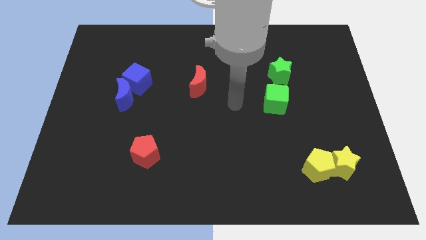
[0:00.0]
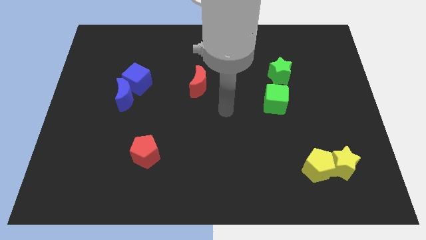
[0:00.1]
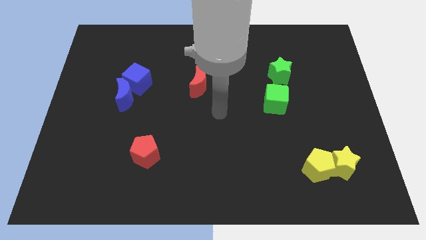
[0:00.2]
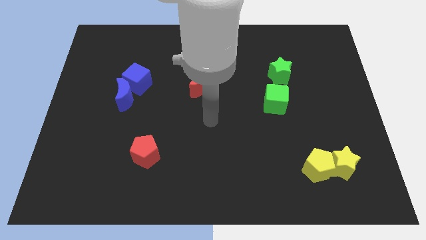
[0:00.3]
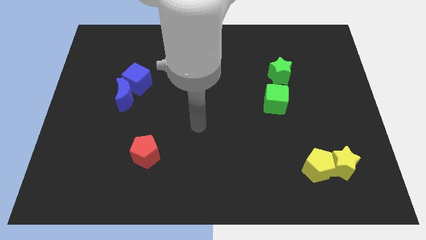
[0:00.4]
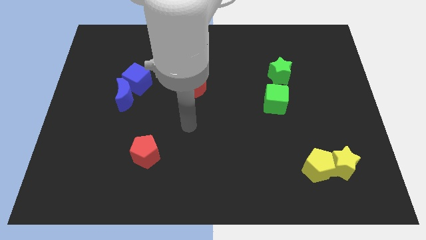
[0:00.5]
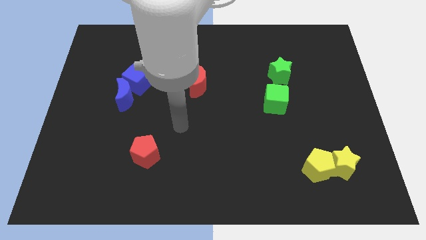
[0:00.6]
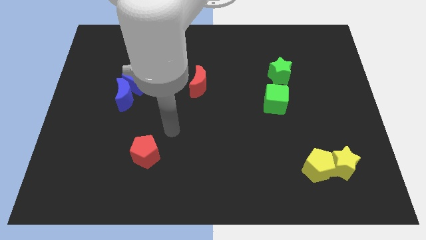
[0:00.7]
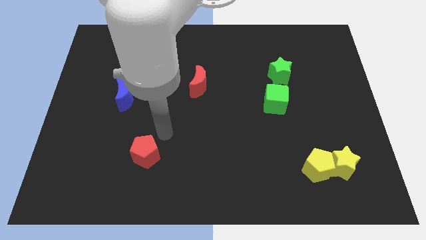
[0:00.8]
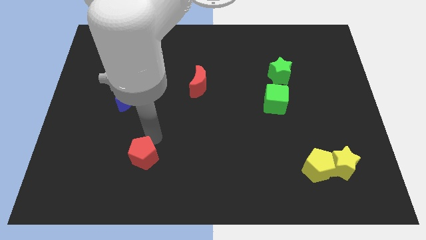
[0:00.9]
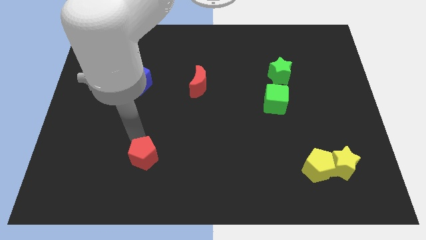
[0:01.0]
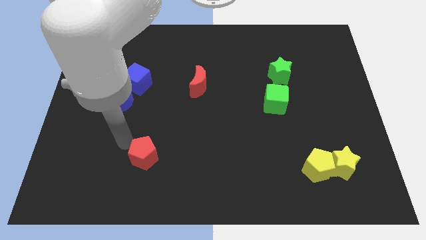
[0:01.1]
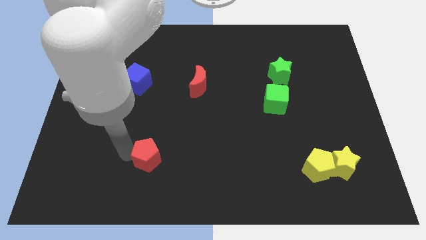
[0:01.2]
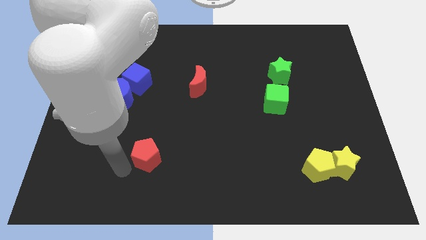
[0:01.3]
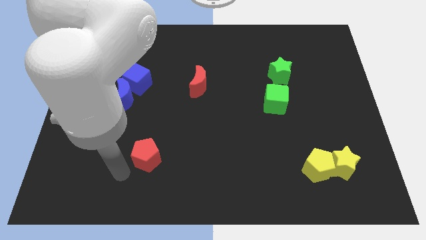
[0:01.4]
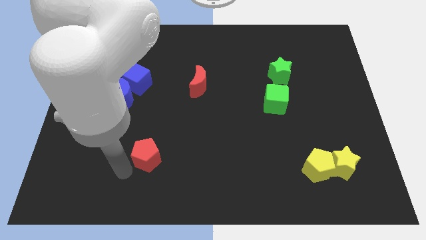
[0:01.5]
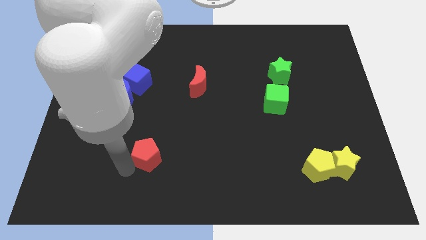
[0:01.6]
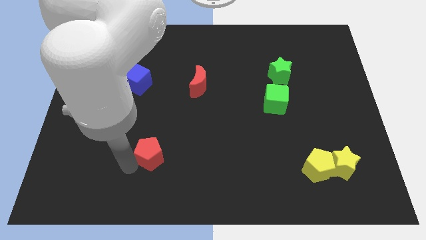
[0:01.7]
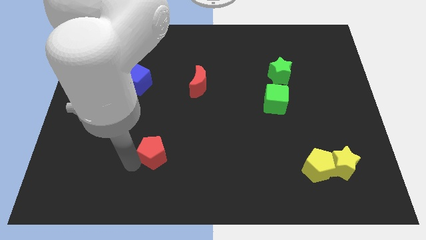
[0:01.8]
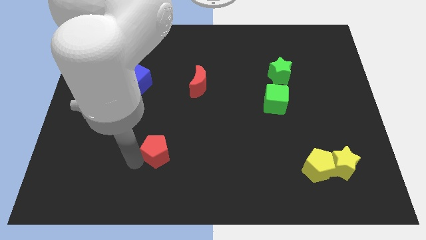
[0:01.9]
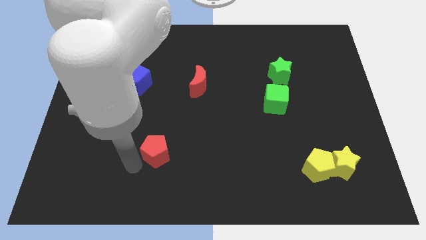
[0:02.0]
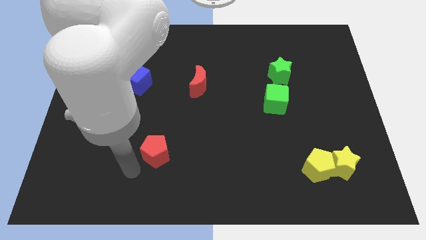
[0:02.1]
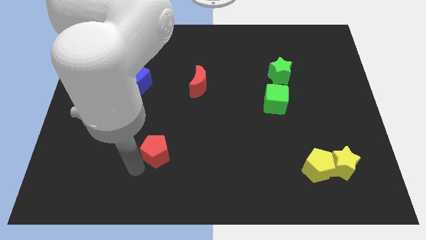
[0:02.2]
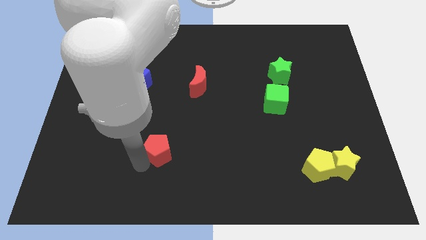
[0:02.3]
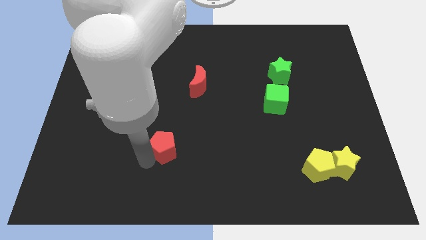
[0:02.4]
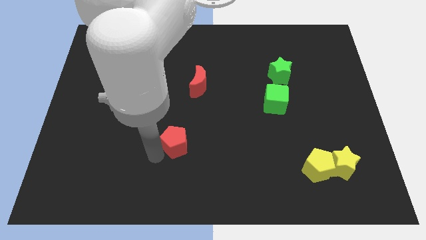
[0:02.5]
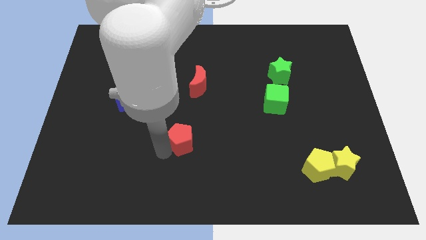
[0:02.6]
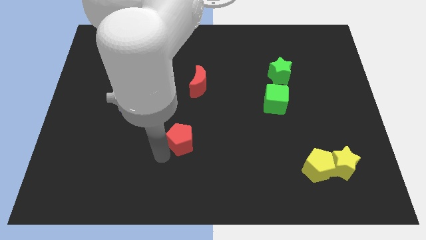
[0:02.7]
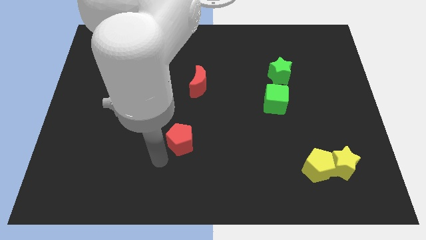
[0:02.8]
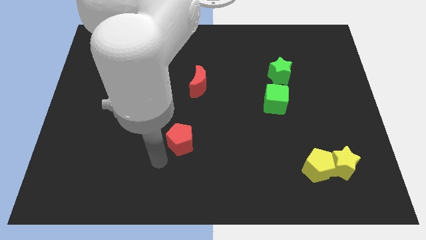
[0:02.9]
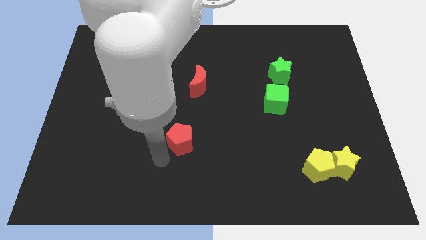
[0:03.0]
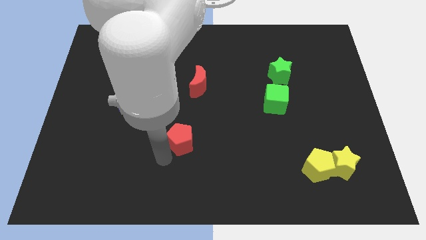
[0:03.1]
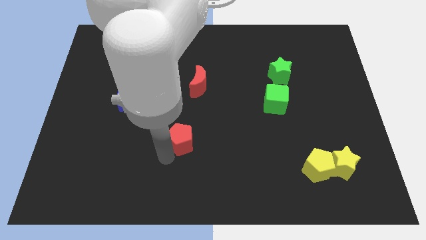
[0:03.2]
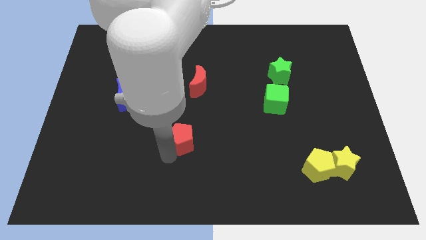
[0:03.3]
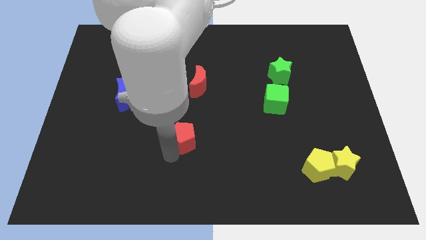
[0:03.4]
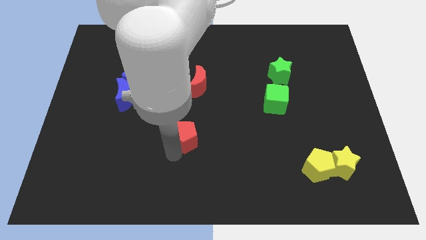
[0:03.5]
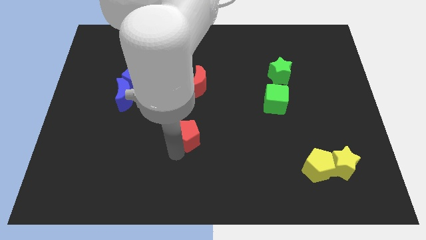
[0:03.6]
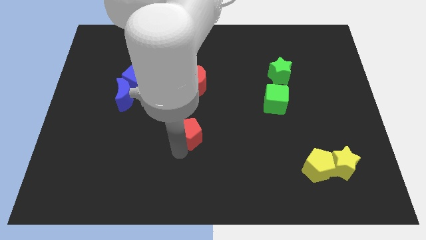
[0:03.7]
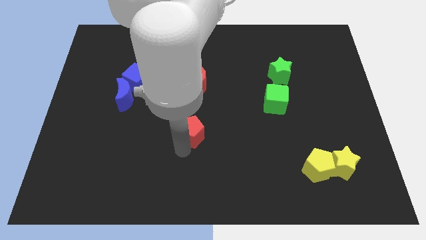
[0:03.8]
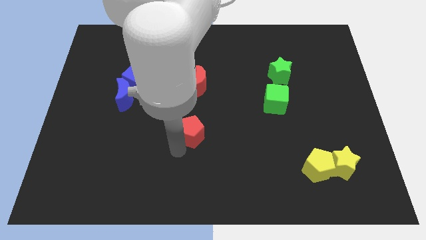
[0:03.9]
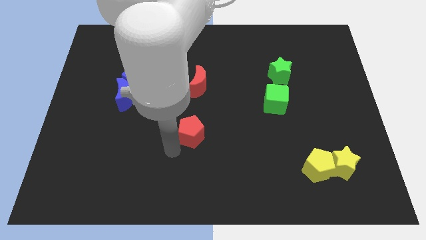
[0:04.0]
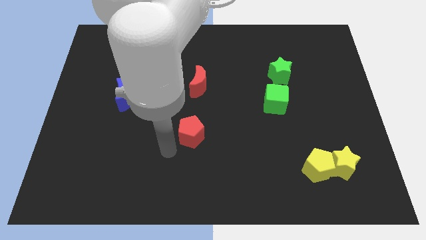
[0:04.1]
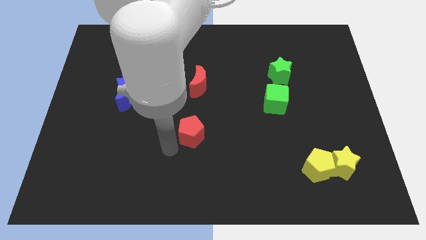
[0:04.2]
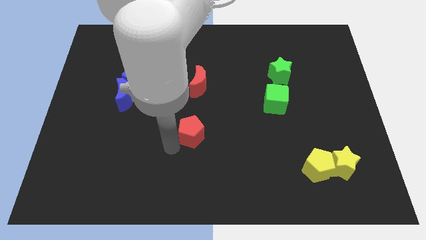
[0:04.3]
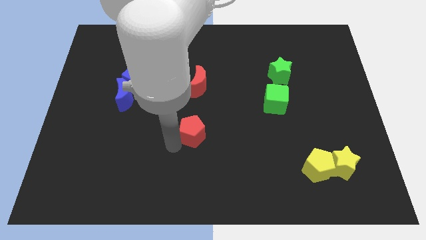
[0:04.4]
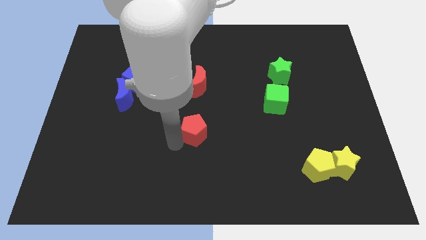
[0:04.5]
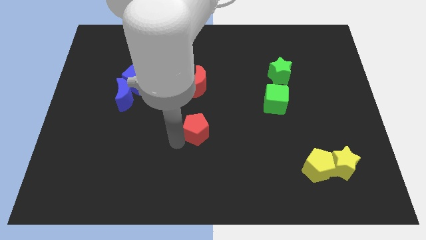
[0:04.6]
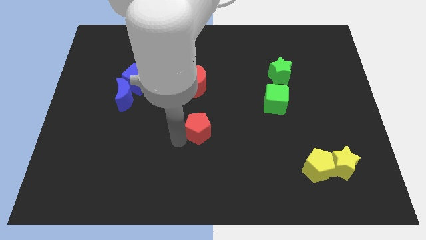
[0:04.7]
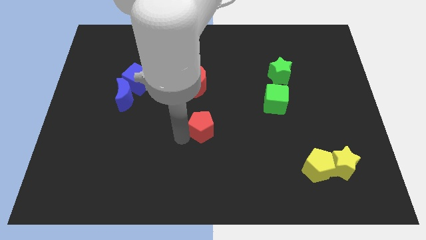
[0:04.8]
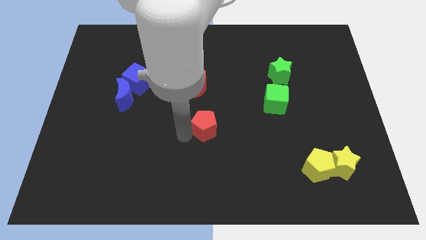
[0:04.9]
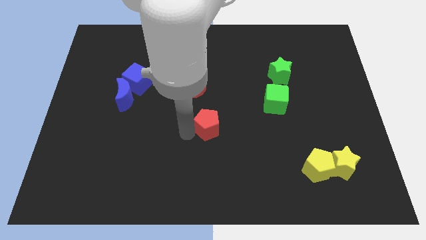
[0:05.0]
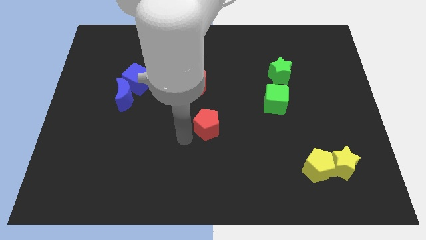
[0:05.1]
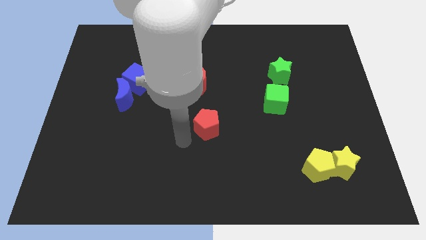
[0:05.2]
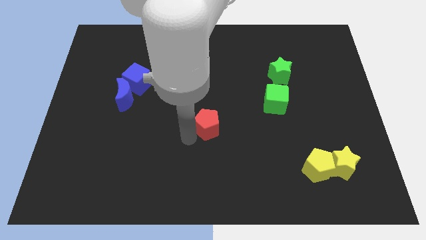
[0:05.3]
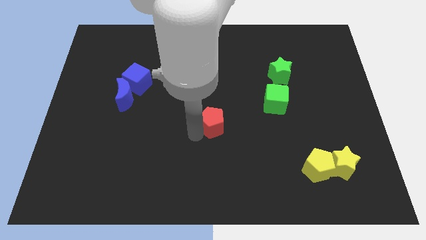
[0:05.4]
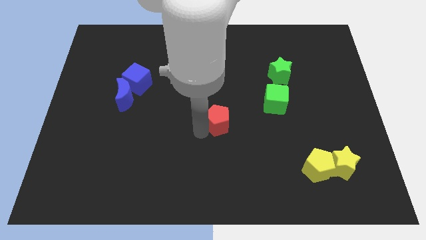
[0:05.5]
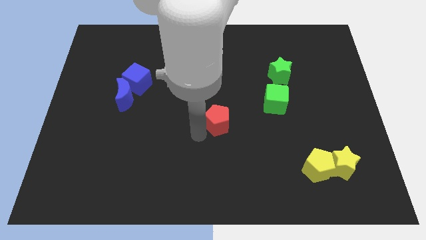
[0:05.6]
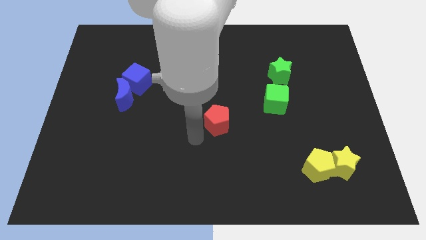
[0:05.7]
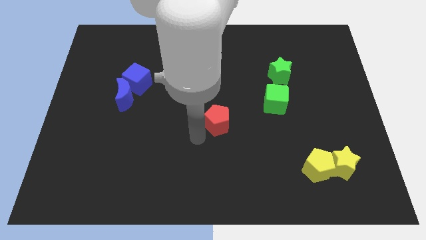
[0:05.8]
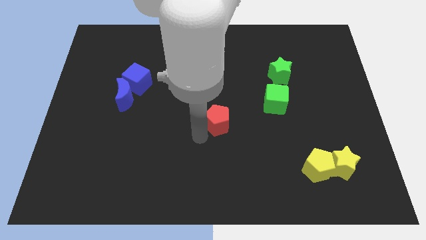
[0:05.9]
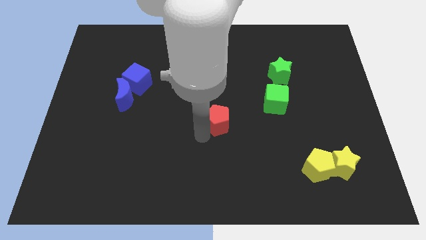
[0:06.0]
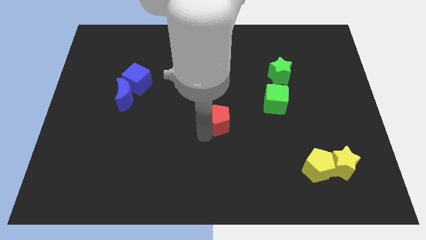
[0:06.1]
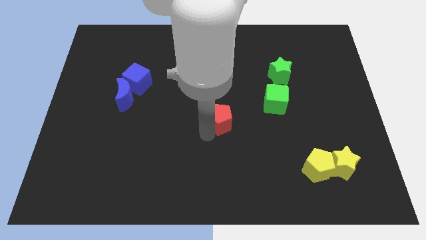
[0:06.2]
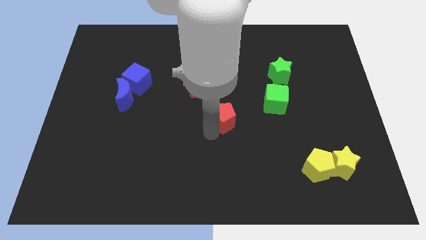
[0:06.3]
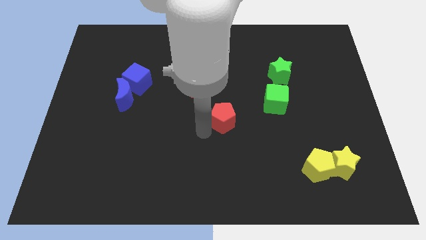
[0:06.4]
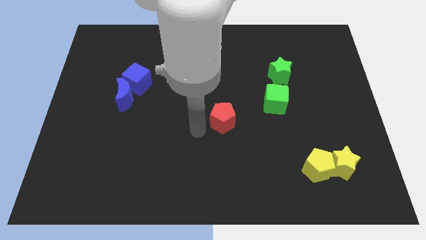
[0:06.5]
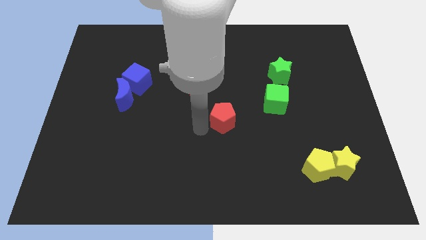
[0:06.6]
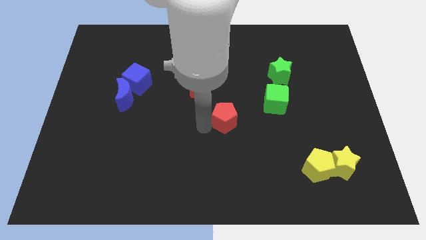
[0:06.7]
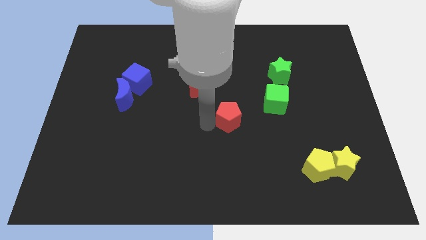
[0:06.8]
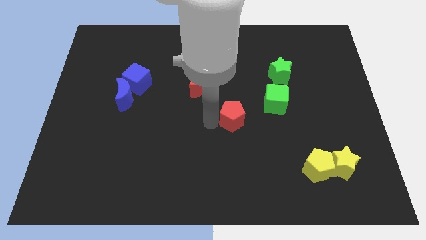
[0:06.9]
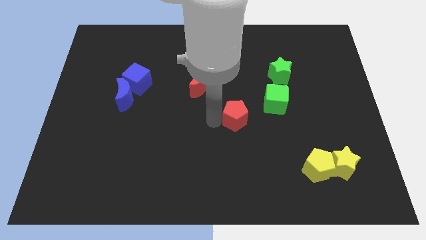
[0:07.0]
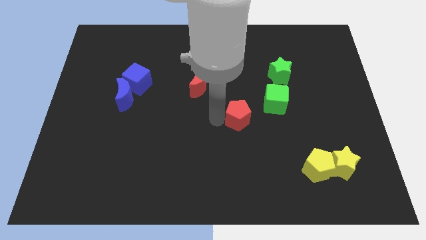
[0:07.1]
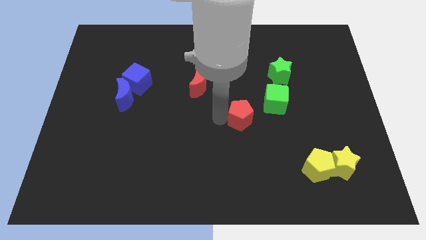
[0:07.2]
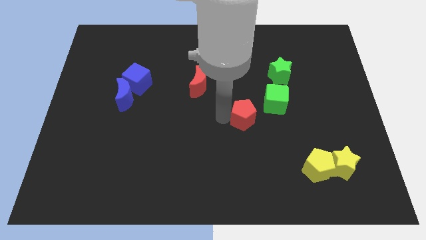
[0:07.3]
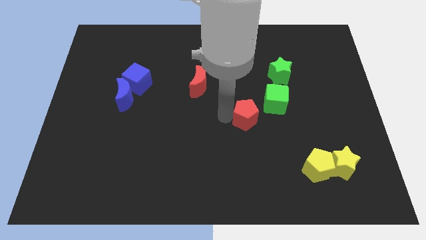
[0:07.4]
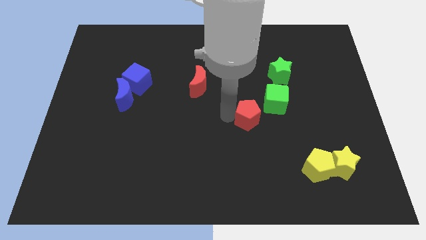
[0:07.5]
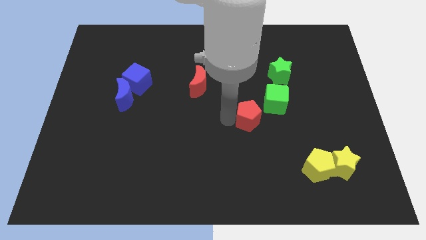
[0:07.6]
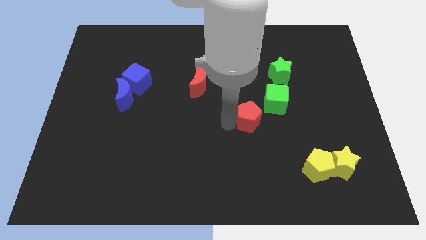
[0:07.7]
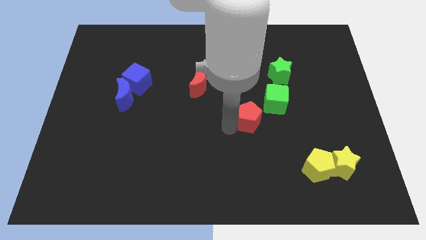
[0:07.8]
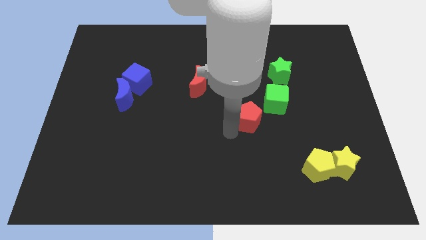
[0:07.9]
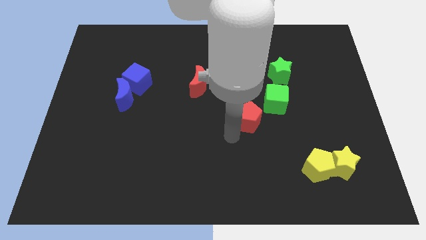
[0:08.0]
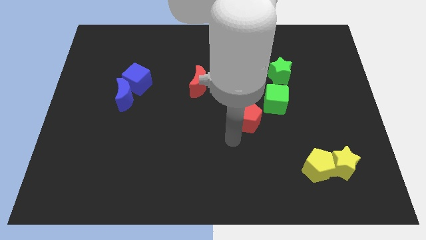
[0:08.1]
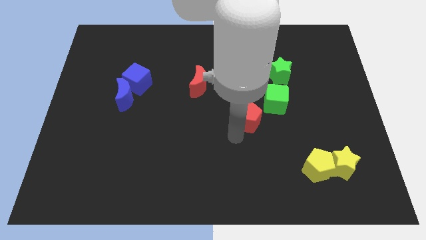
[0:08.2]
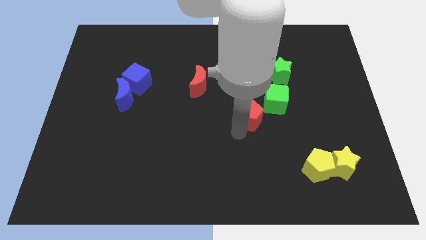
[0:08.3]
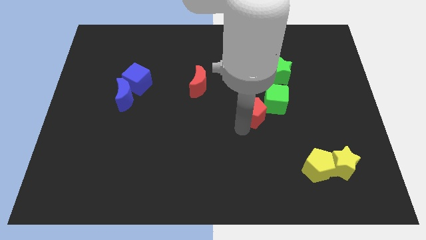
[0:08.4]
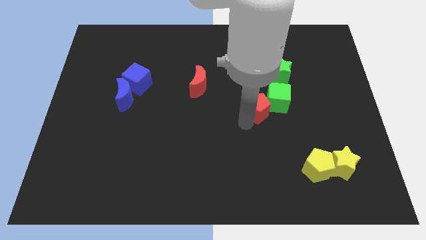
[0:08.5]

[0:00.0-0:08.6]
push the red pentagon to the green cube
